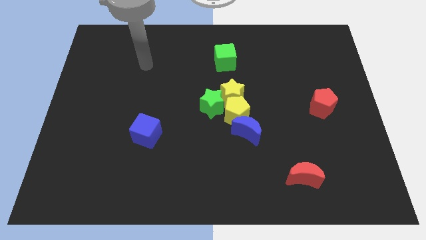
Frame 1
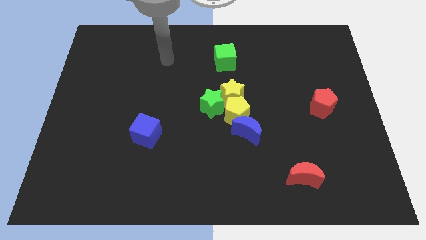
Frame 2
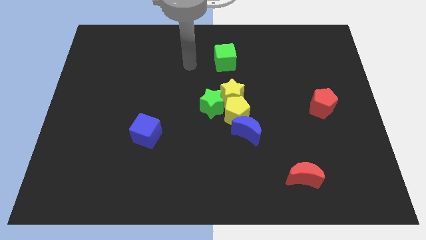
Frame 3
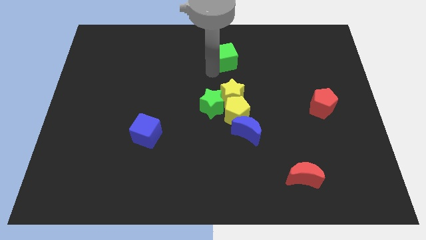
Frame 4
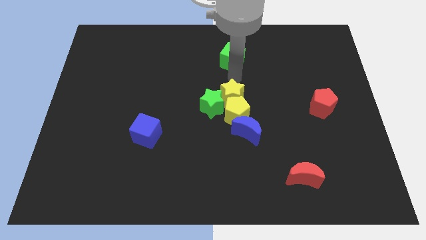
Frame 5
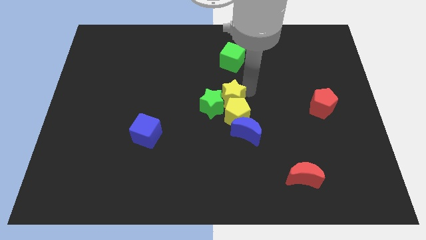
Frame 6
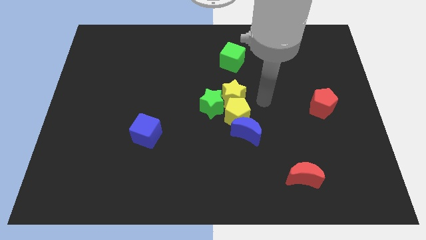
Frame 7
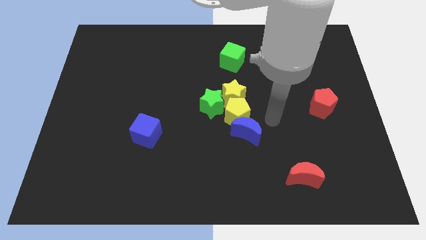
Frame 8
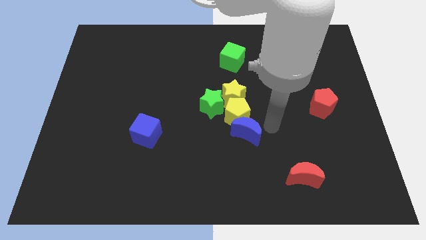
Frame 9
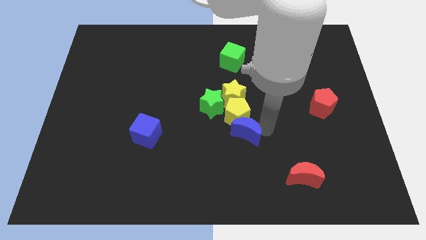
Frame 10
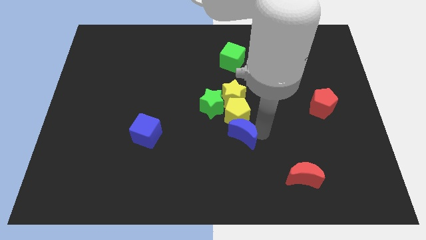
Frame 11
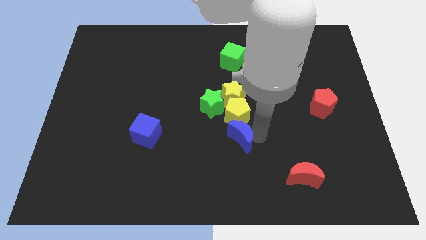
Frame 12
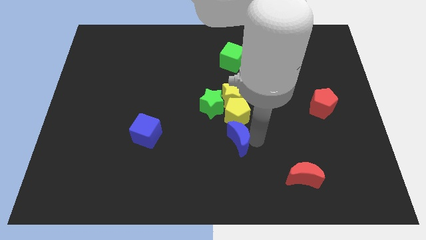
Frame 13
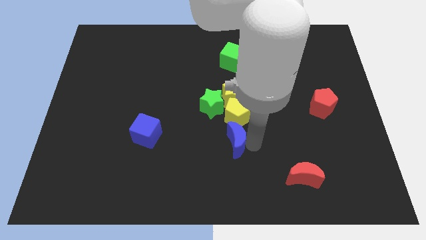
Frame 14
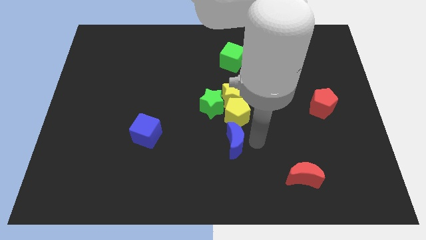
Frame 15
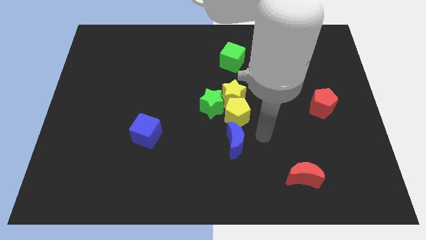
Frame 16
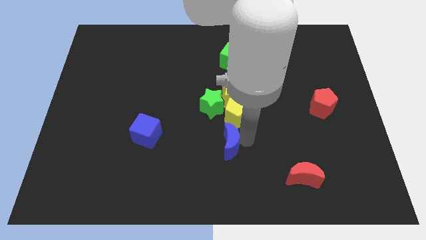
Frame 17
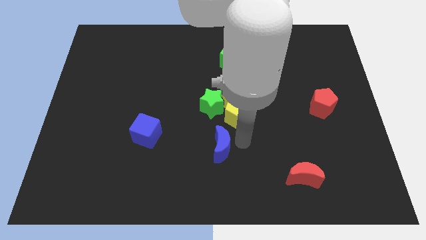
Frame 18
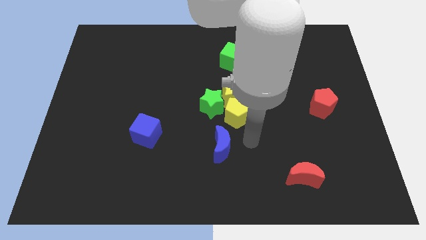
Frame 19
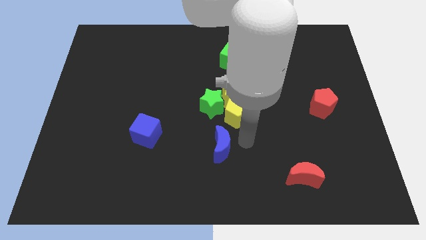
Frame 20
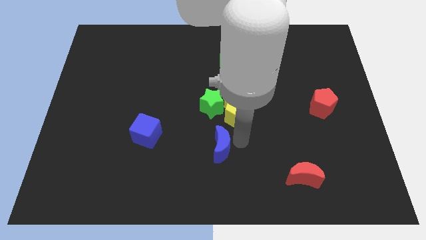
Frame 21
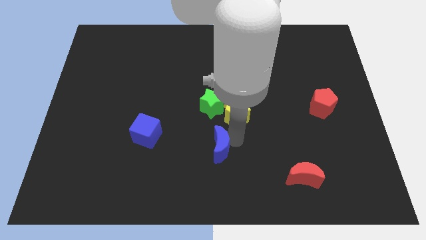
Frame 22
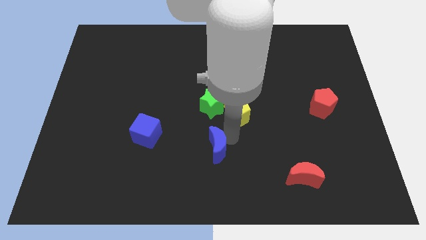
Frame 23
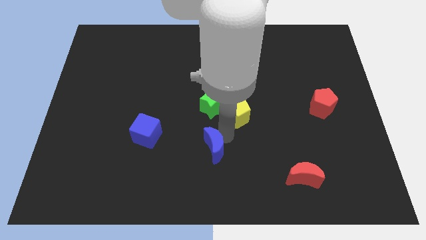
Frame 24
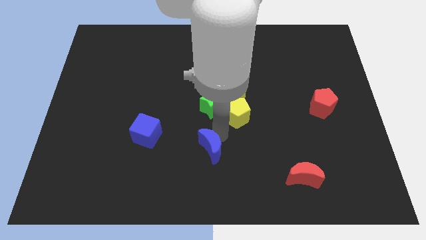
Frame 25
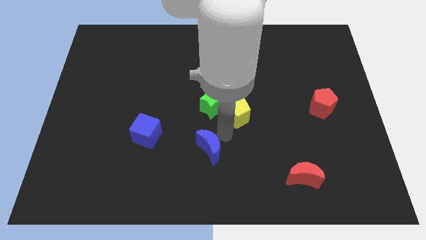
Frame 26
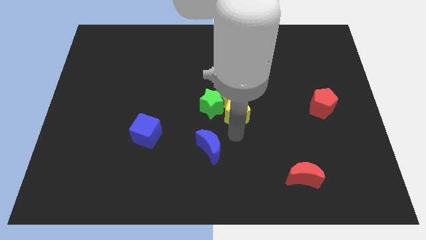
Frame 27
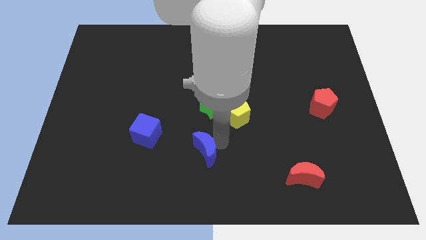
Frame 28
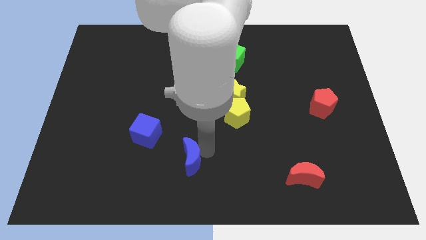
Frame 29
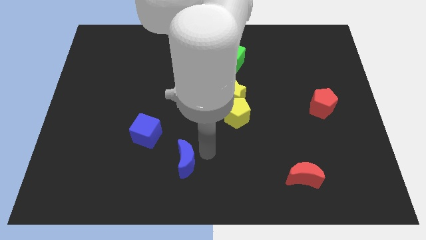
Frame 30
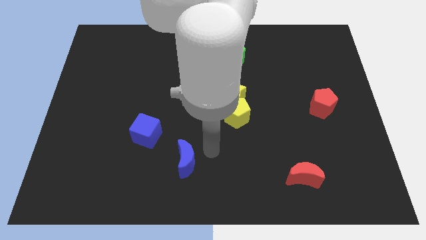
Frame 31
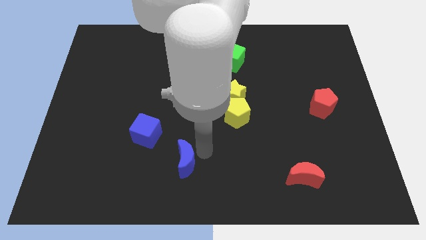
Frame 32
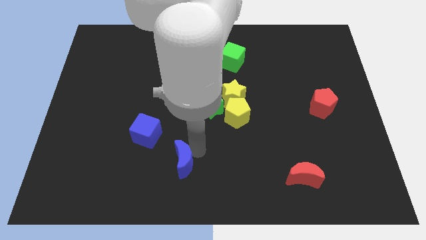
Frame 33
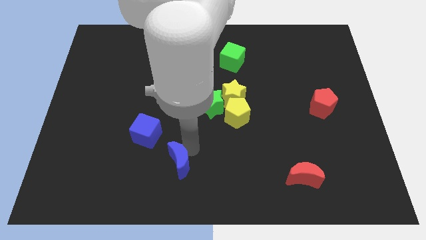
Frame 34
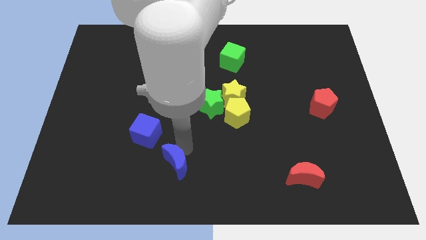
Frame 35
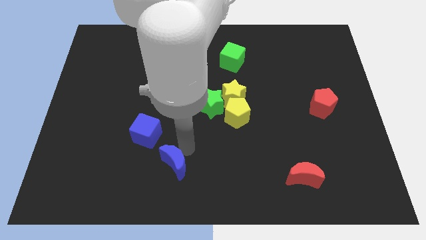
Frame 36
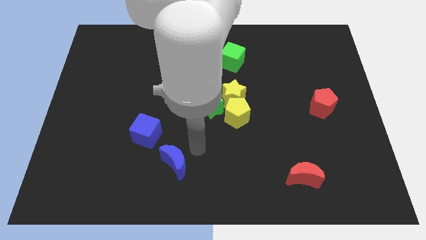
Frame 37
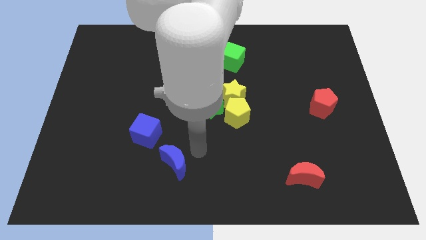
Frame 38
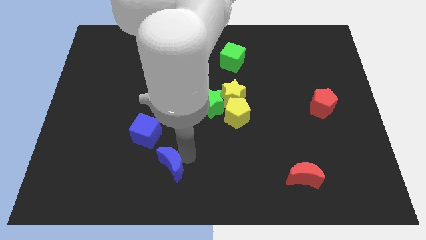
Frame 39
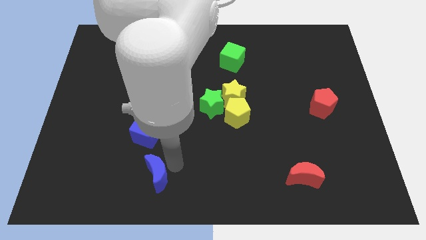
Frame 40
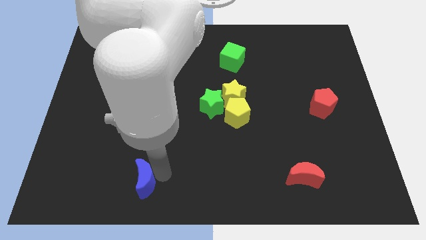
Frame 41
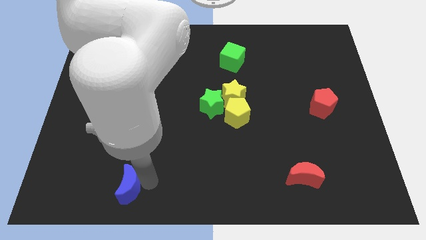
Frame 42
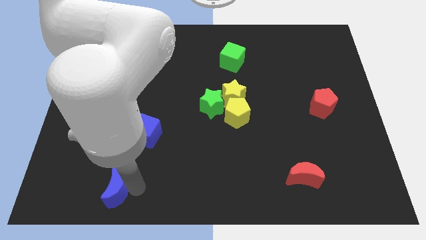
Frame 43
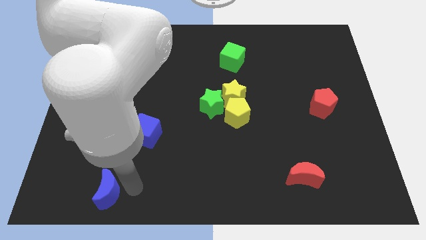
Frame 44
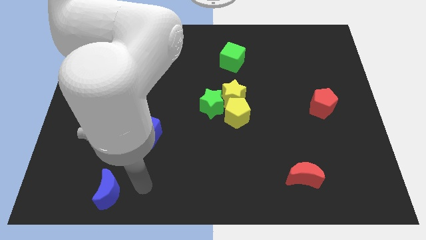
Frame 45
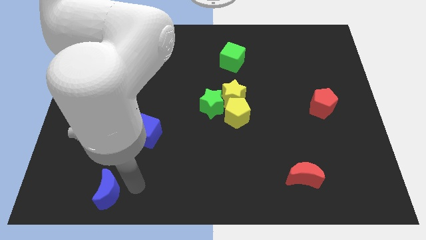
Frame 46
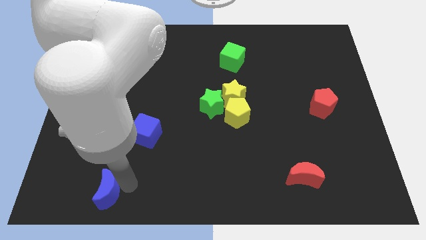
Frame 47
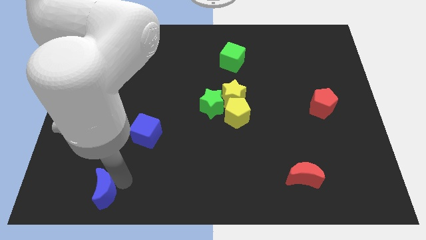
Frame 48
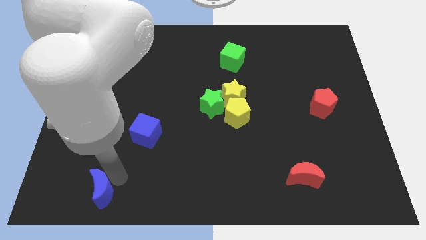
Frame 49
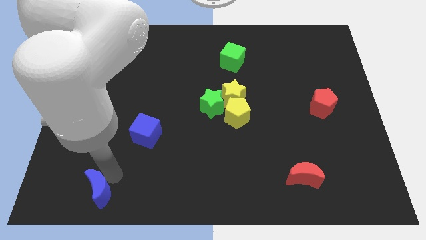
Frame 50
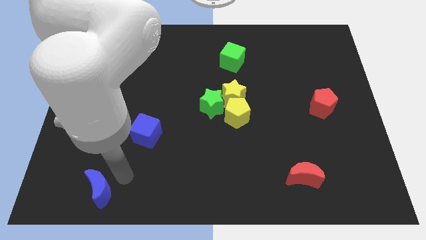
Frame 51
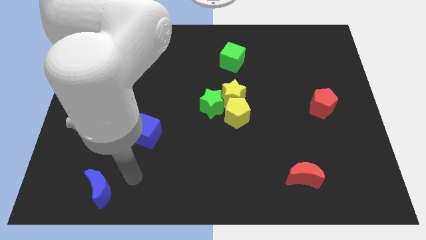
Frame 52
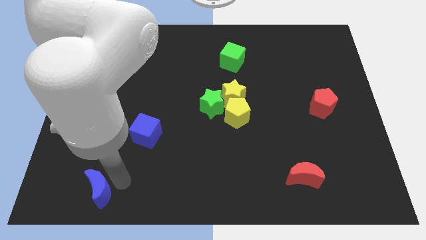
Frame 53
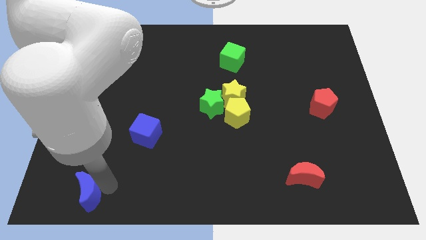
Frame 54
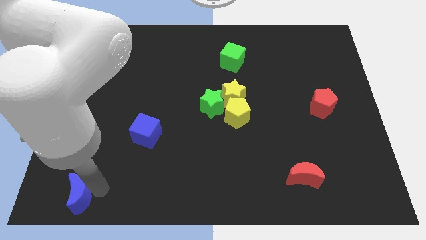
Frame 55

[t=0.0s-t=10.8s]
slide the blue moon to the bottom left of the board

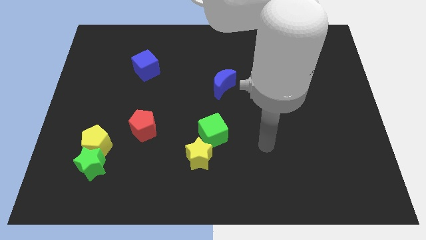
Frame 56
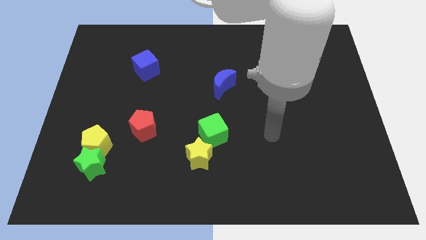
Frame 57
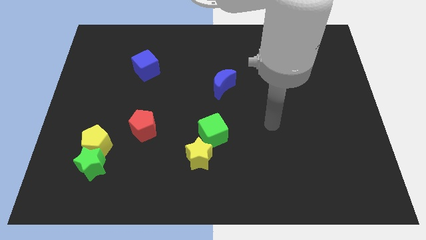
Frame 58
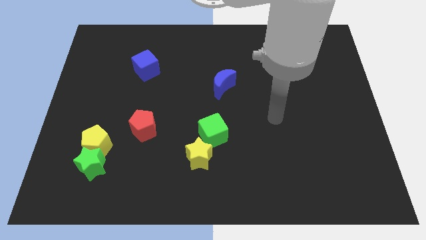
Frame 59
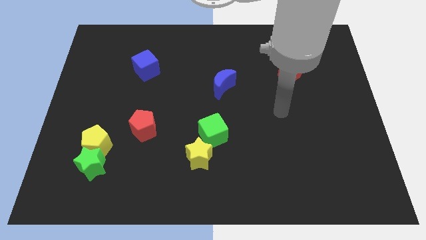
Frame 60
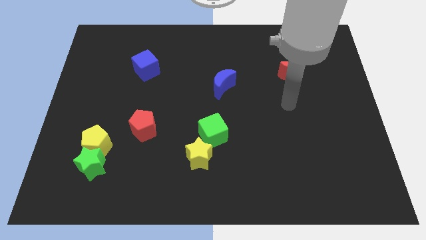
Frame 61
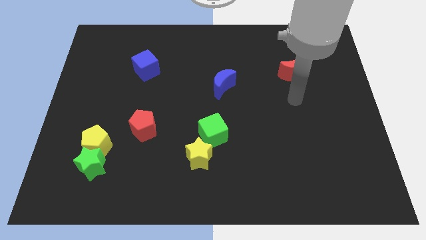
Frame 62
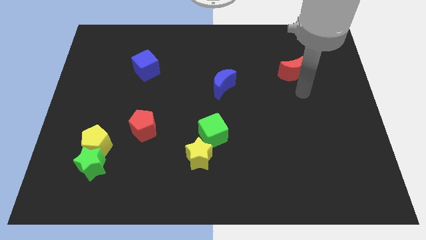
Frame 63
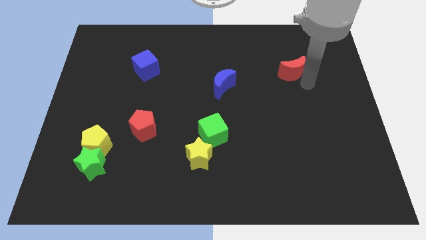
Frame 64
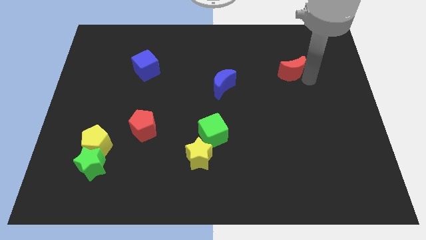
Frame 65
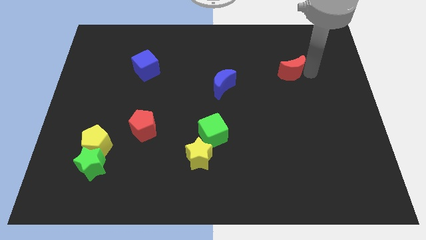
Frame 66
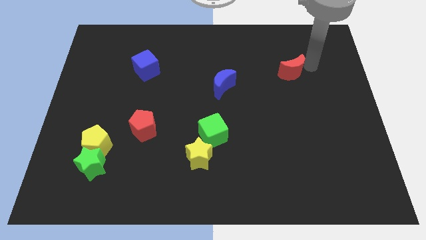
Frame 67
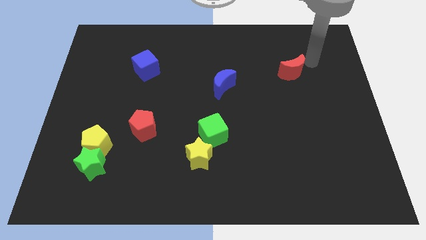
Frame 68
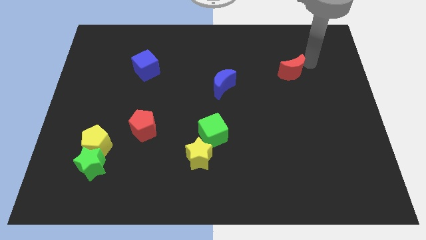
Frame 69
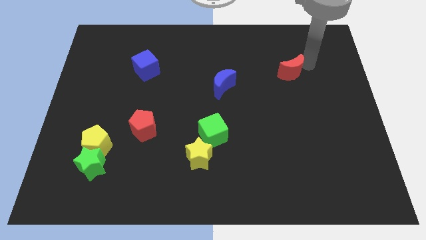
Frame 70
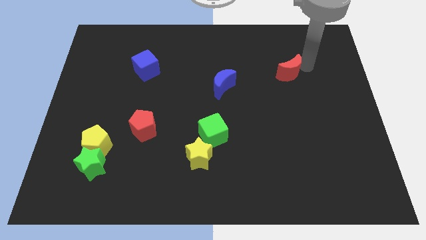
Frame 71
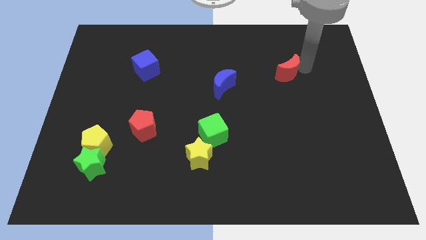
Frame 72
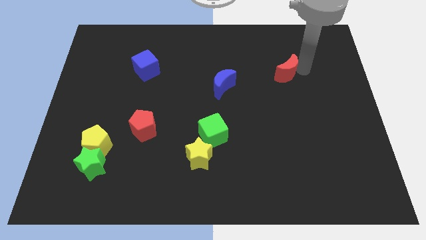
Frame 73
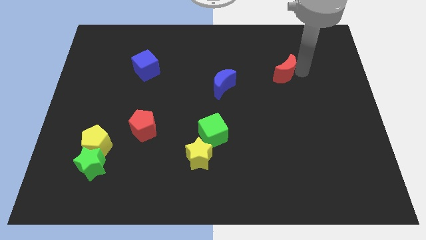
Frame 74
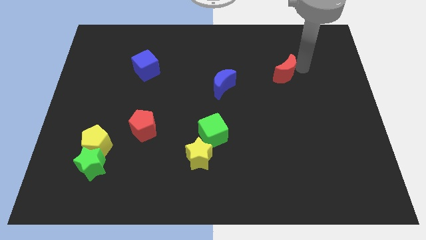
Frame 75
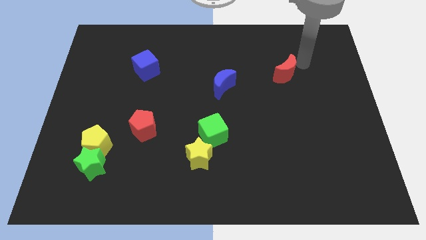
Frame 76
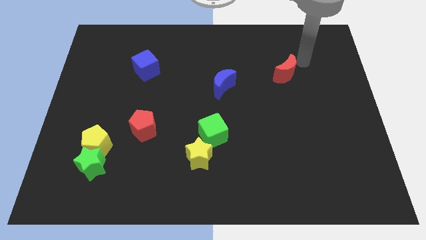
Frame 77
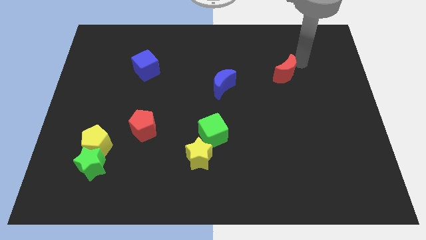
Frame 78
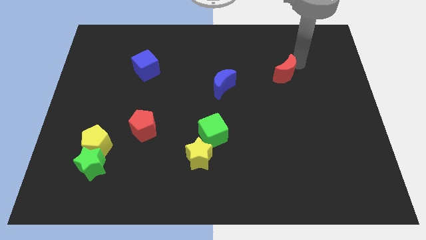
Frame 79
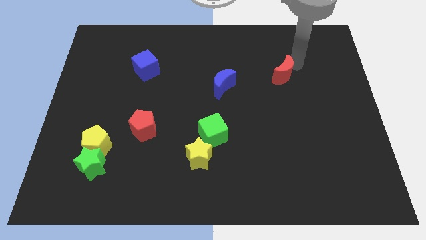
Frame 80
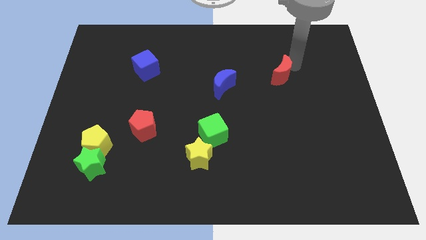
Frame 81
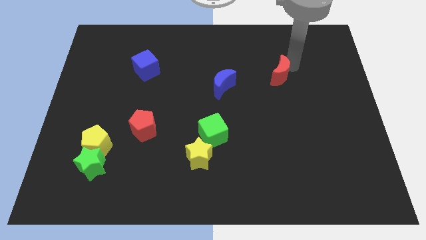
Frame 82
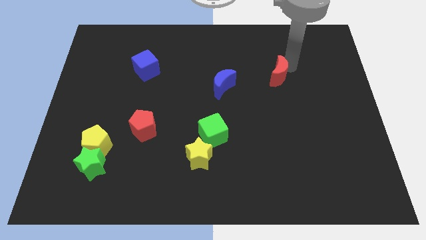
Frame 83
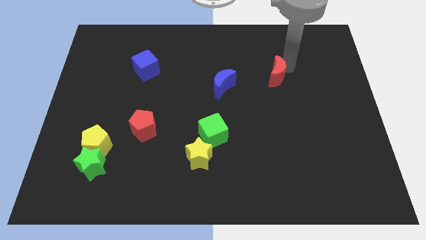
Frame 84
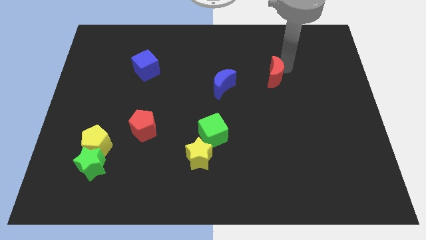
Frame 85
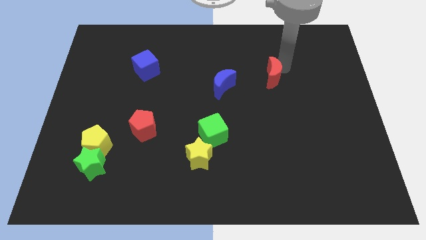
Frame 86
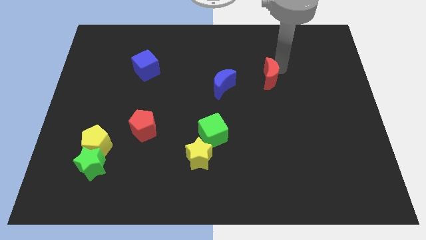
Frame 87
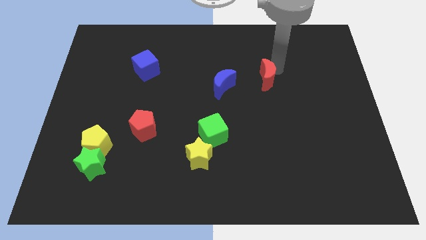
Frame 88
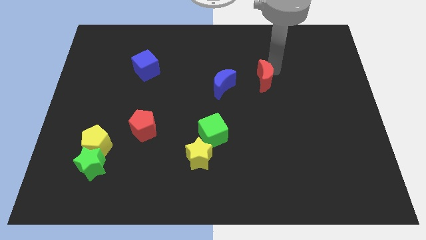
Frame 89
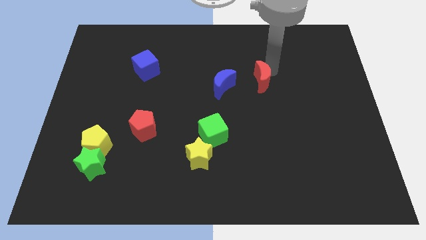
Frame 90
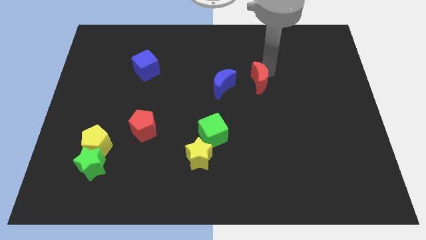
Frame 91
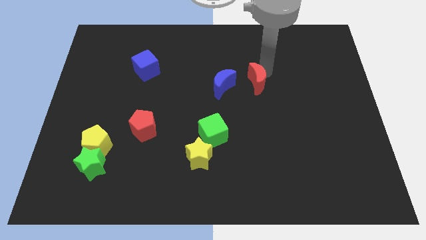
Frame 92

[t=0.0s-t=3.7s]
move the red moon to the center
